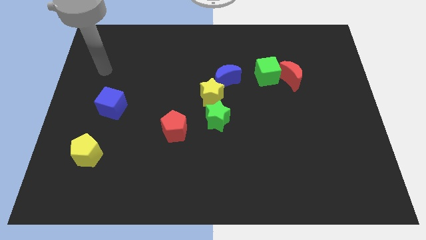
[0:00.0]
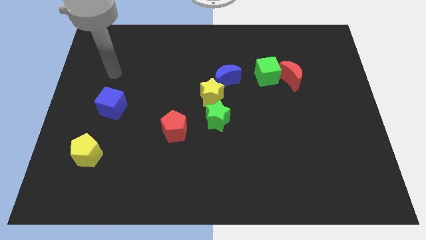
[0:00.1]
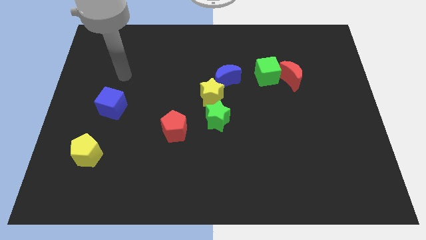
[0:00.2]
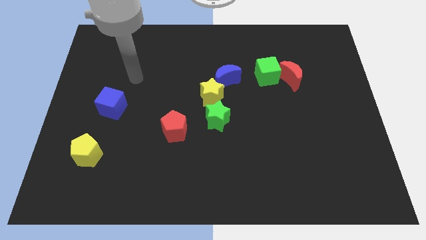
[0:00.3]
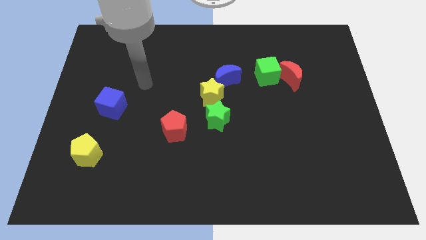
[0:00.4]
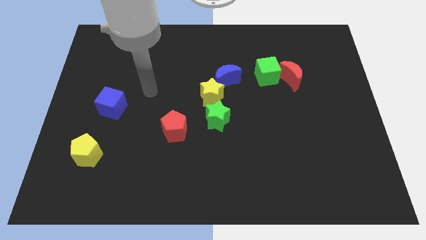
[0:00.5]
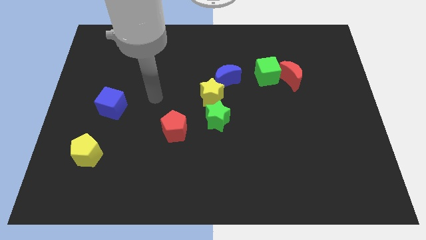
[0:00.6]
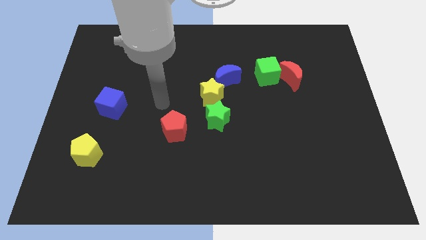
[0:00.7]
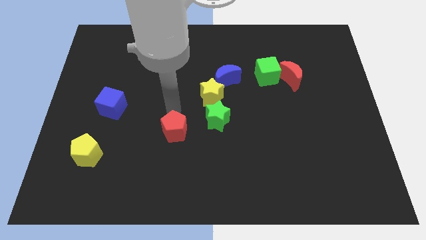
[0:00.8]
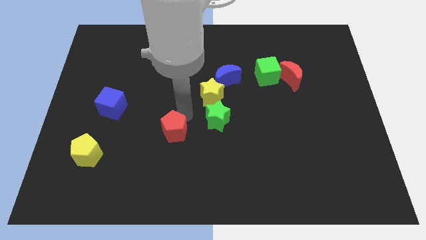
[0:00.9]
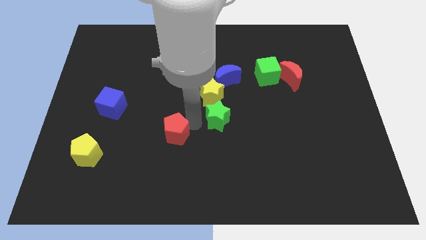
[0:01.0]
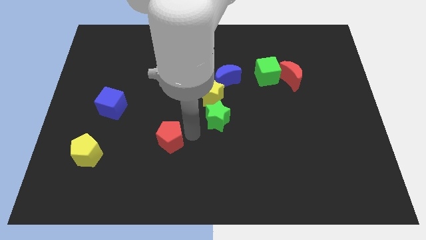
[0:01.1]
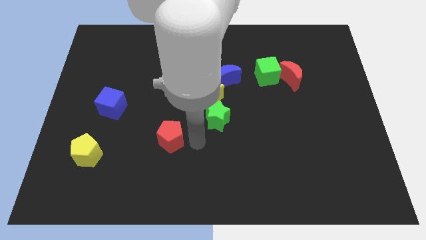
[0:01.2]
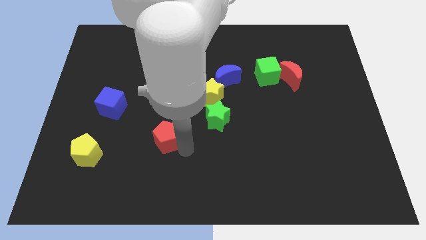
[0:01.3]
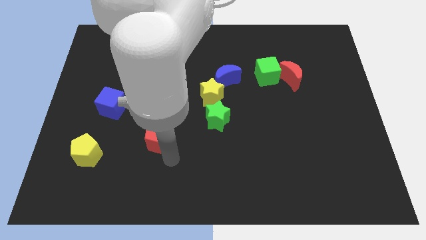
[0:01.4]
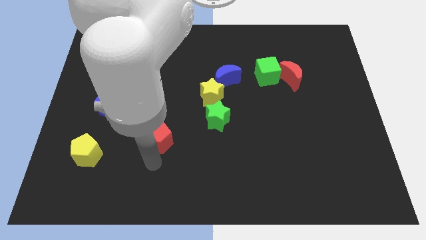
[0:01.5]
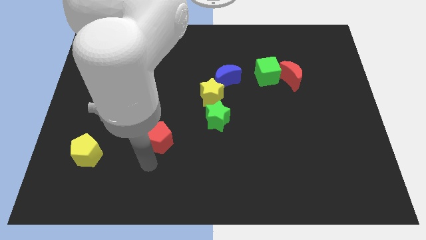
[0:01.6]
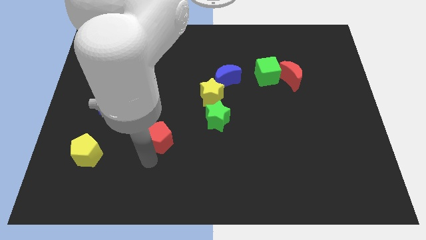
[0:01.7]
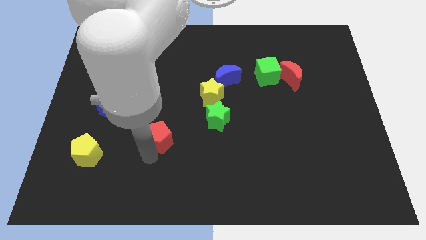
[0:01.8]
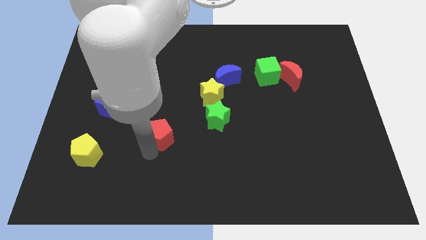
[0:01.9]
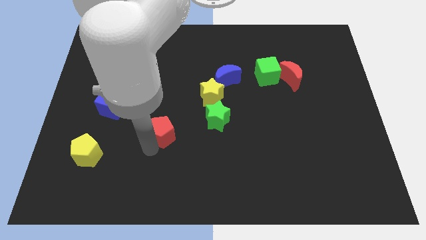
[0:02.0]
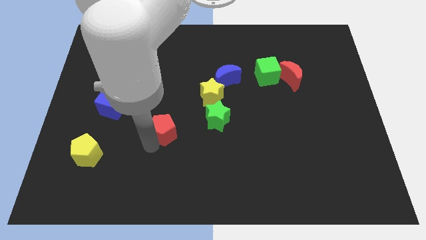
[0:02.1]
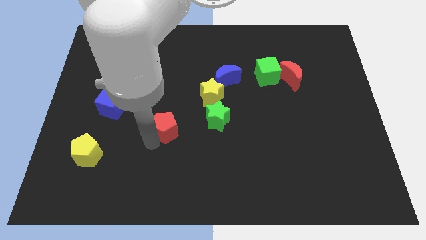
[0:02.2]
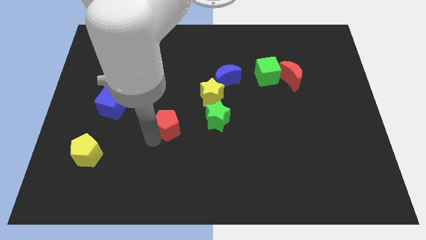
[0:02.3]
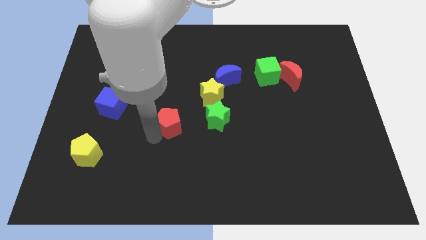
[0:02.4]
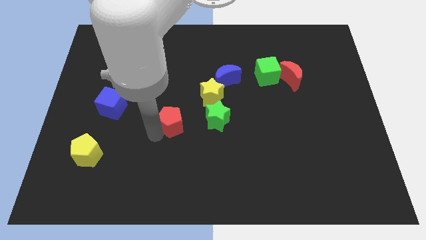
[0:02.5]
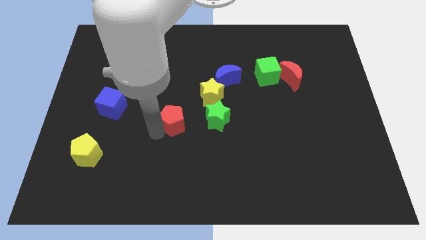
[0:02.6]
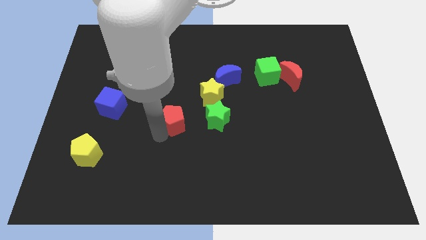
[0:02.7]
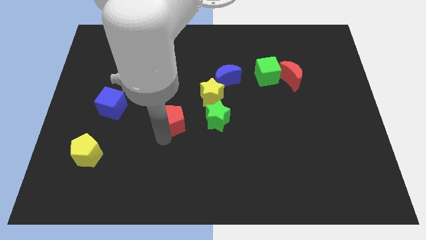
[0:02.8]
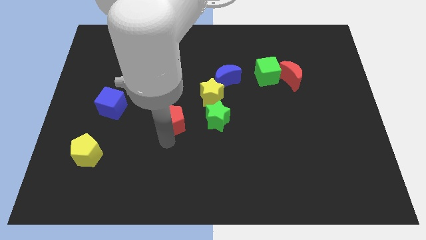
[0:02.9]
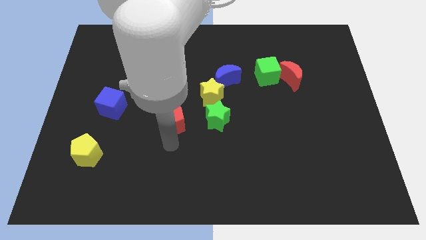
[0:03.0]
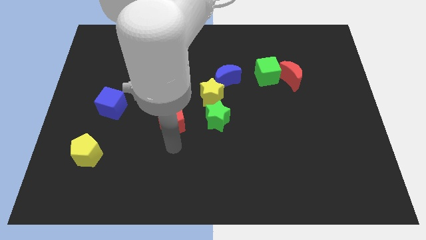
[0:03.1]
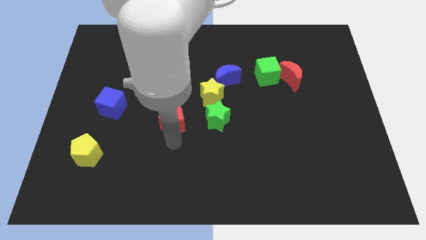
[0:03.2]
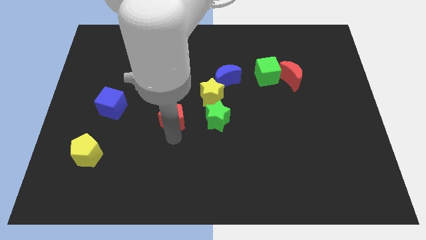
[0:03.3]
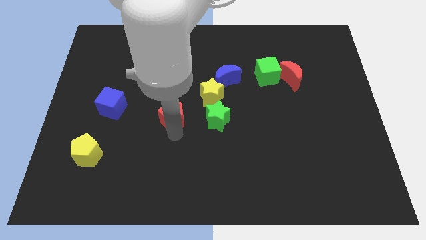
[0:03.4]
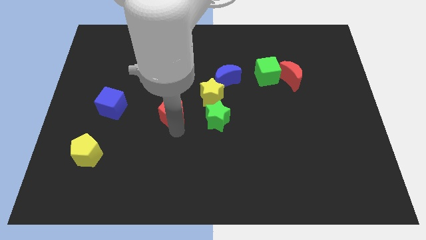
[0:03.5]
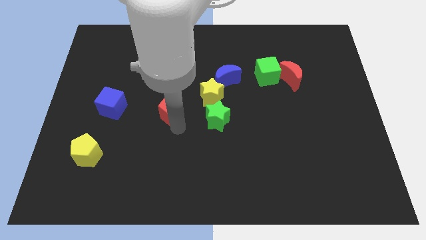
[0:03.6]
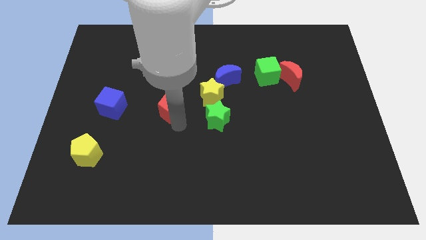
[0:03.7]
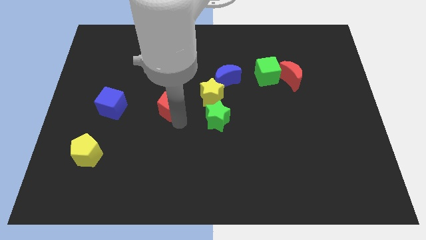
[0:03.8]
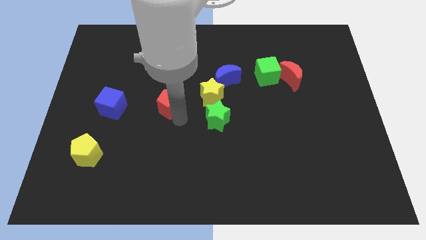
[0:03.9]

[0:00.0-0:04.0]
slightly move the red pentagon upwards

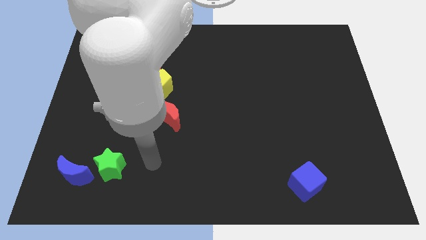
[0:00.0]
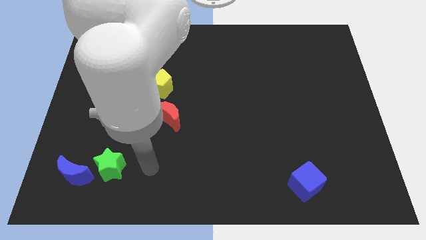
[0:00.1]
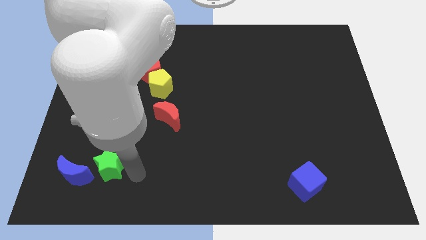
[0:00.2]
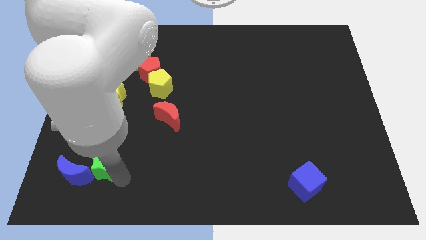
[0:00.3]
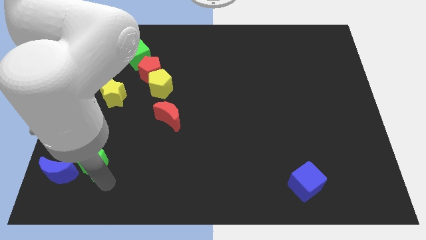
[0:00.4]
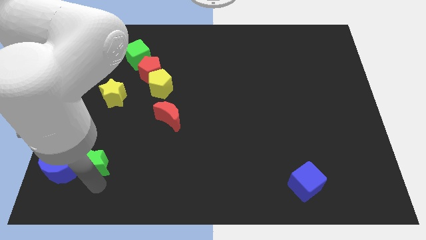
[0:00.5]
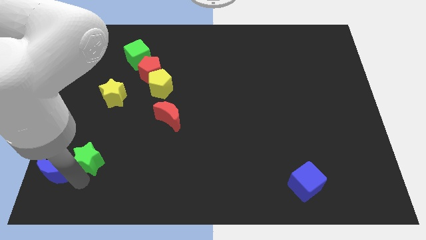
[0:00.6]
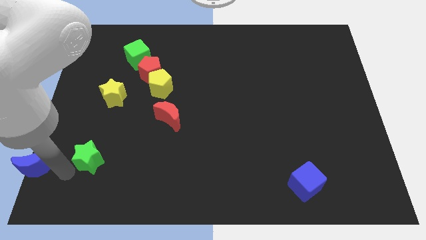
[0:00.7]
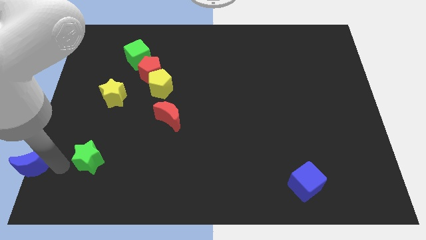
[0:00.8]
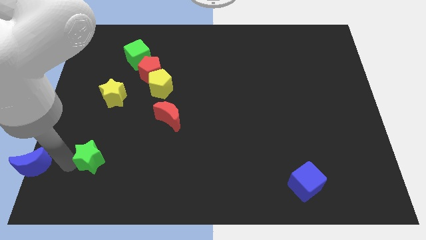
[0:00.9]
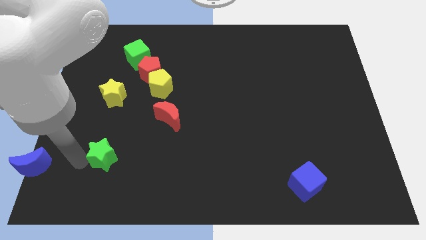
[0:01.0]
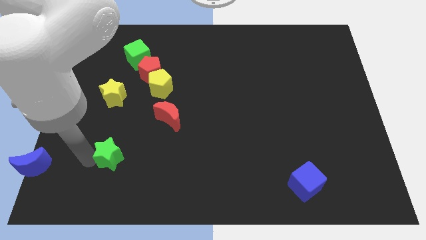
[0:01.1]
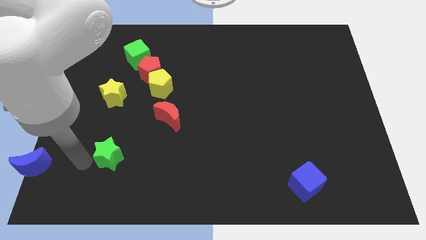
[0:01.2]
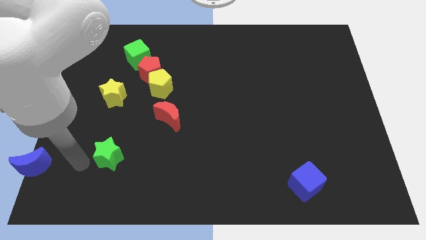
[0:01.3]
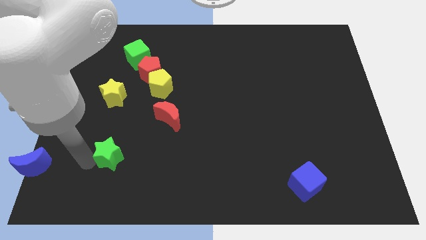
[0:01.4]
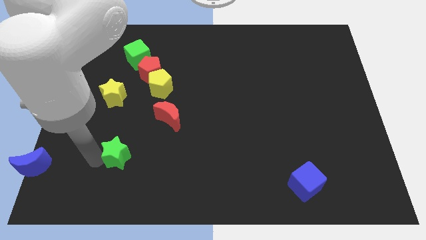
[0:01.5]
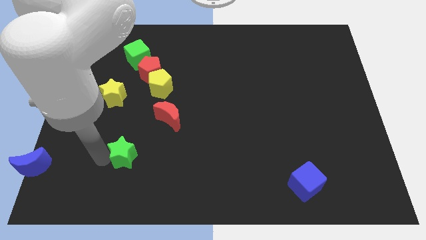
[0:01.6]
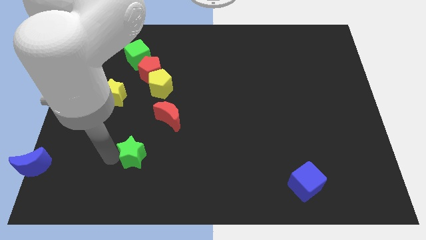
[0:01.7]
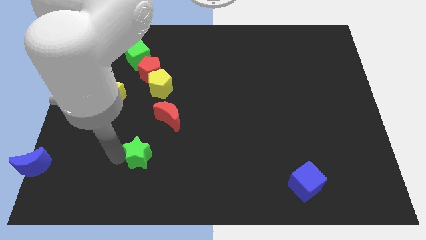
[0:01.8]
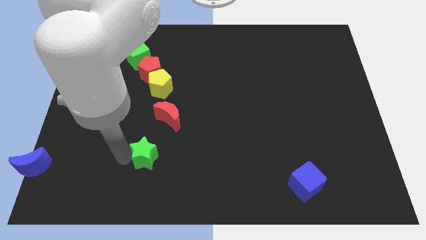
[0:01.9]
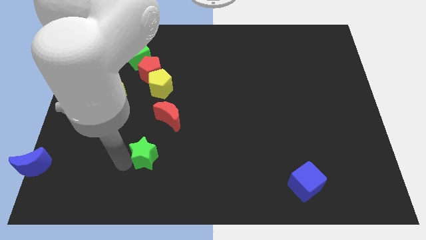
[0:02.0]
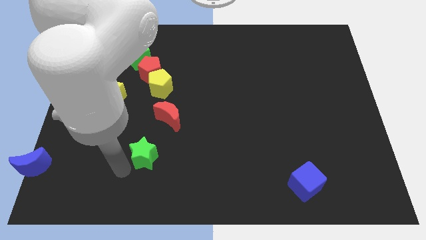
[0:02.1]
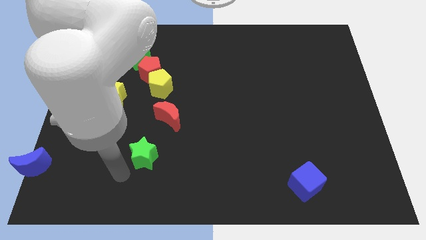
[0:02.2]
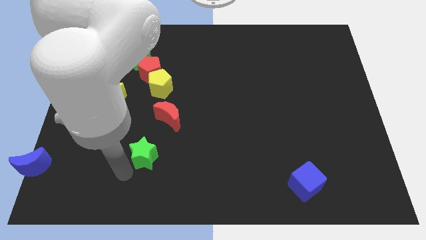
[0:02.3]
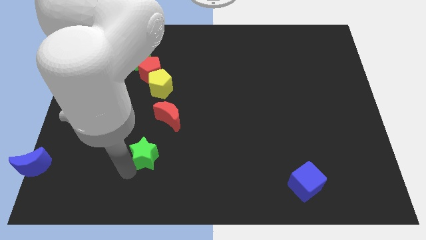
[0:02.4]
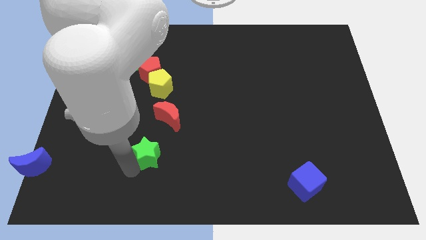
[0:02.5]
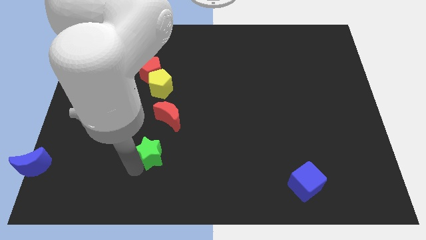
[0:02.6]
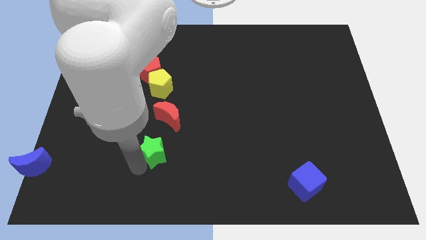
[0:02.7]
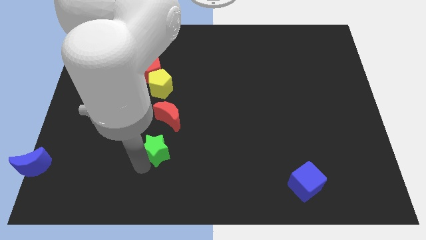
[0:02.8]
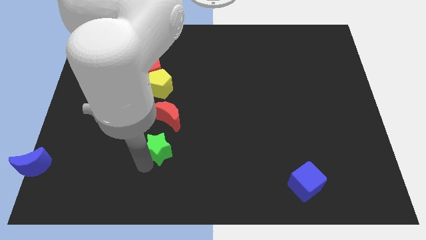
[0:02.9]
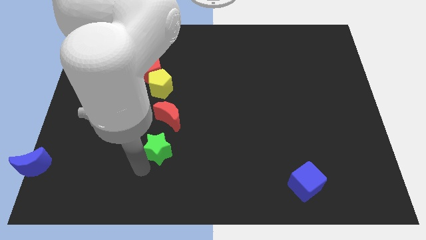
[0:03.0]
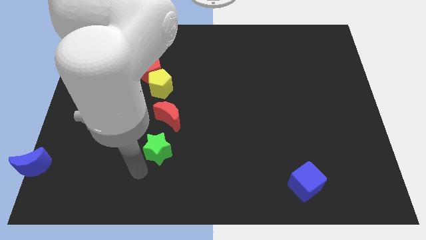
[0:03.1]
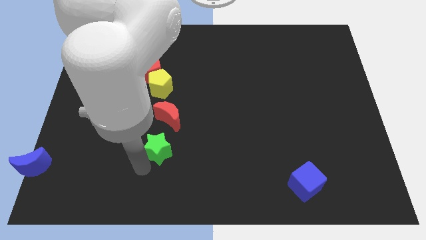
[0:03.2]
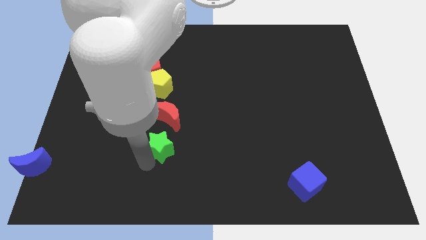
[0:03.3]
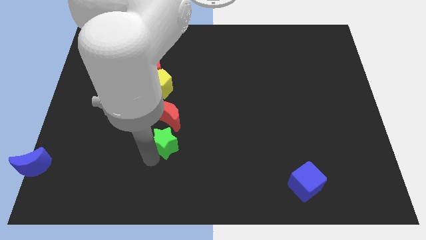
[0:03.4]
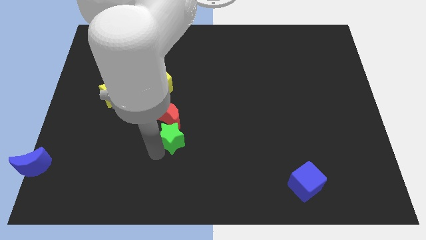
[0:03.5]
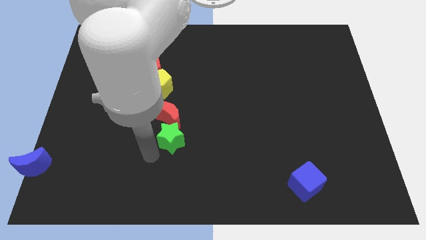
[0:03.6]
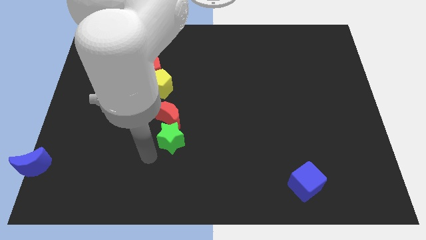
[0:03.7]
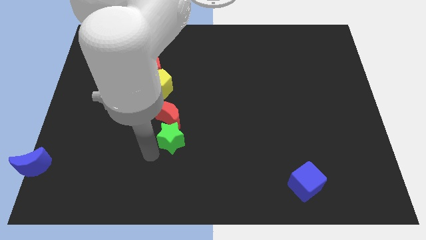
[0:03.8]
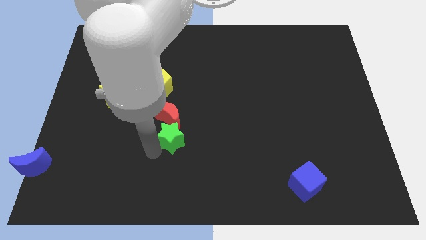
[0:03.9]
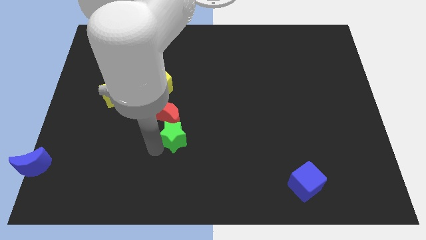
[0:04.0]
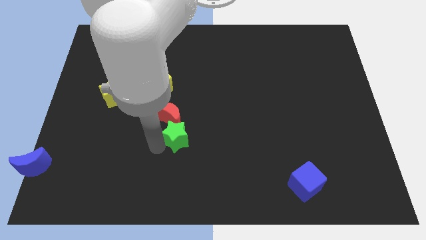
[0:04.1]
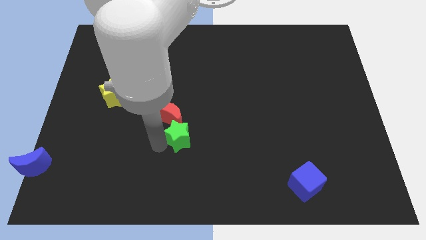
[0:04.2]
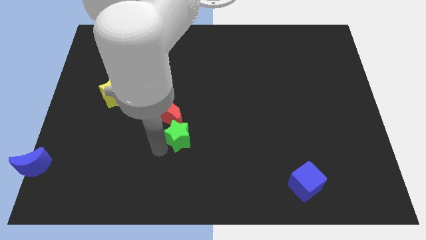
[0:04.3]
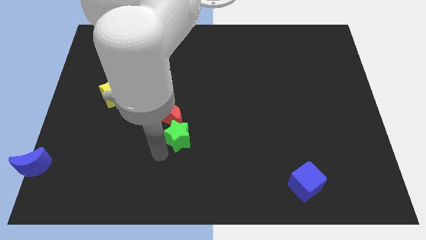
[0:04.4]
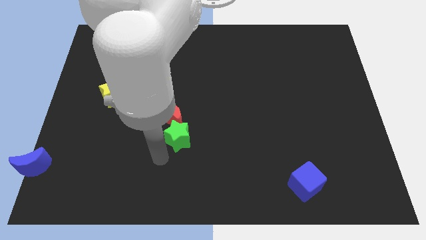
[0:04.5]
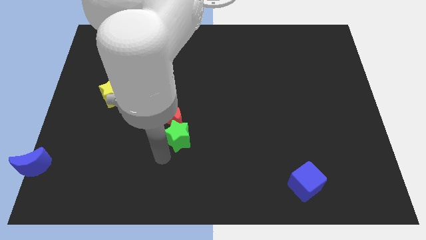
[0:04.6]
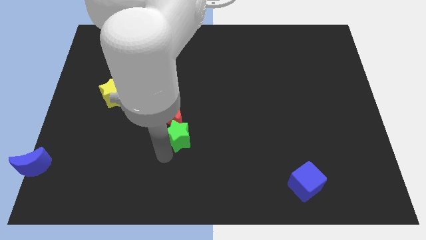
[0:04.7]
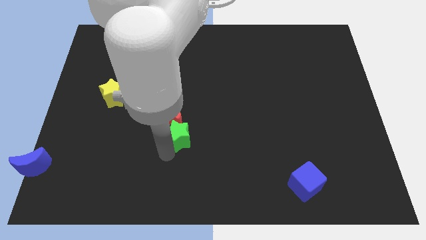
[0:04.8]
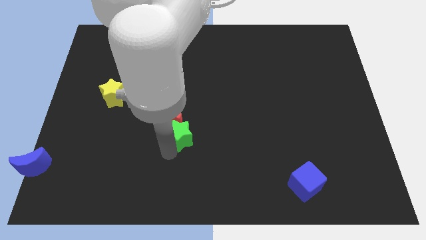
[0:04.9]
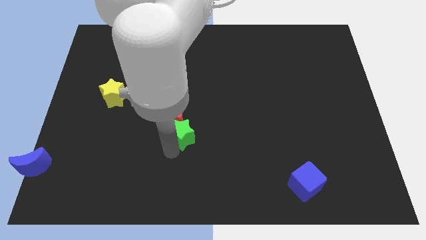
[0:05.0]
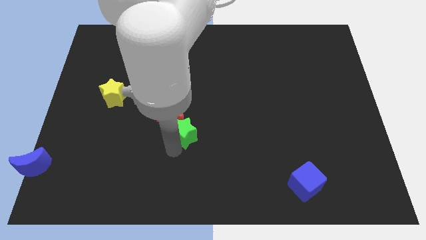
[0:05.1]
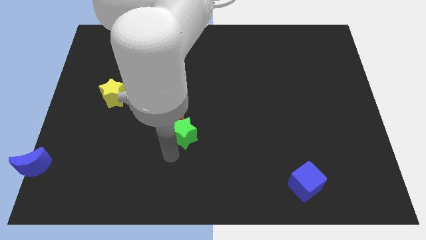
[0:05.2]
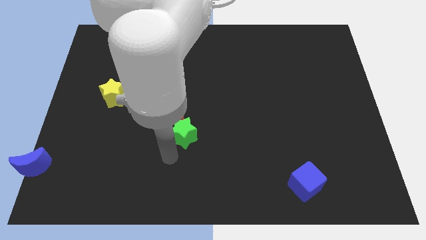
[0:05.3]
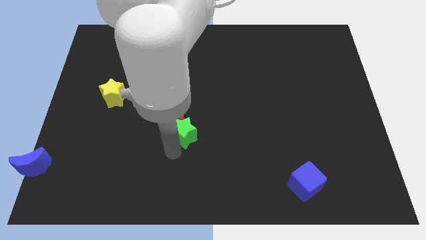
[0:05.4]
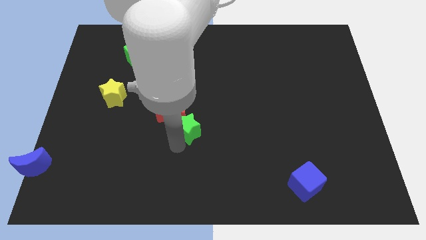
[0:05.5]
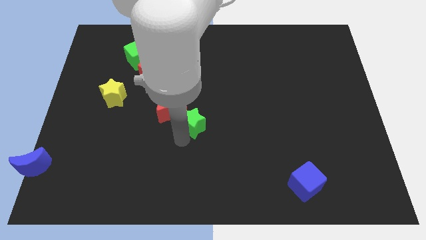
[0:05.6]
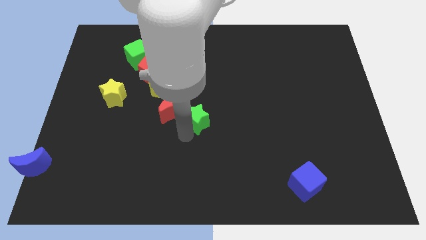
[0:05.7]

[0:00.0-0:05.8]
move the green star up and right
